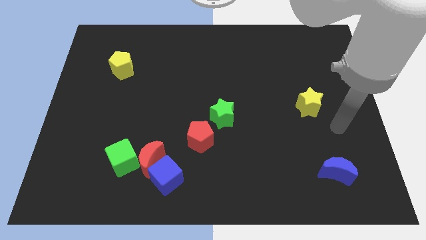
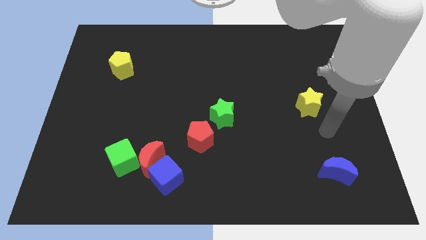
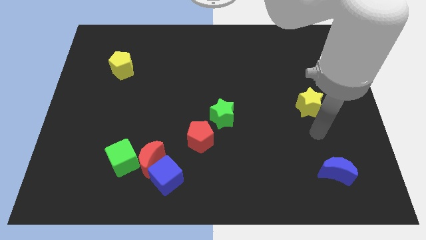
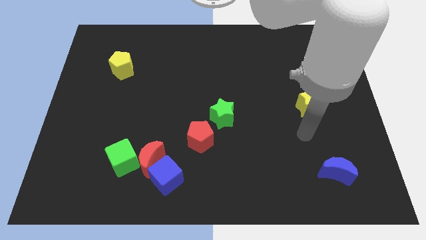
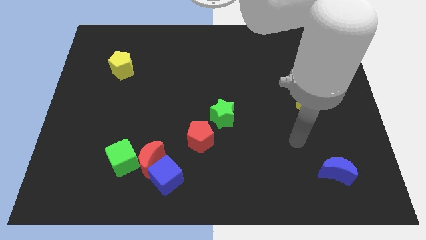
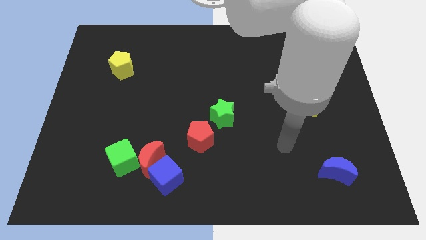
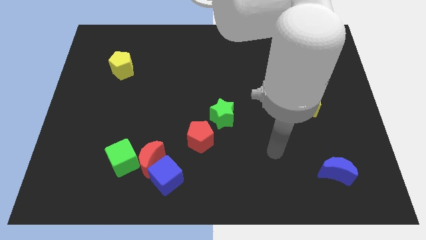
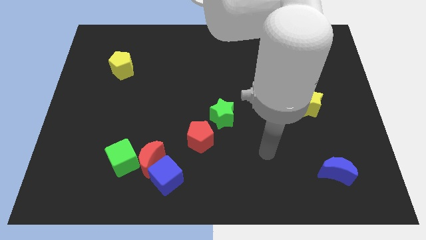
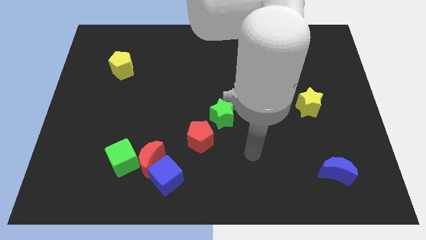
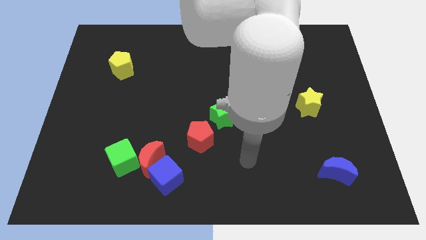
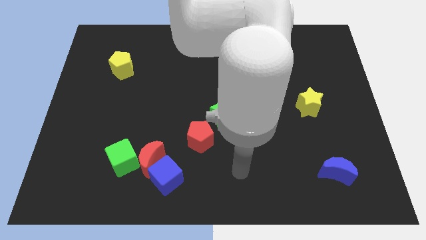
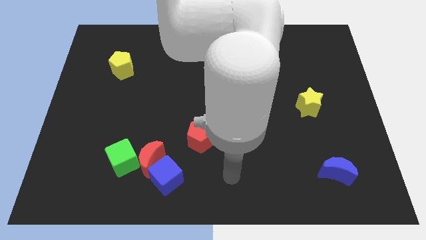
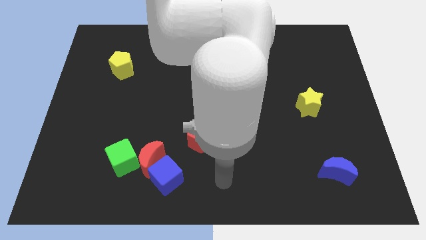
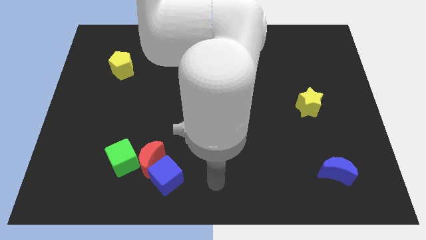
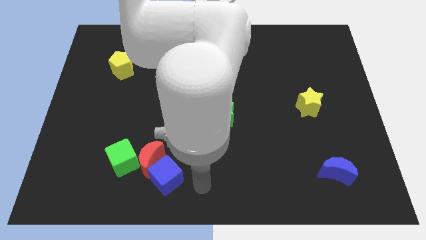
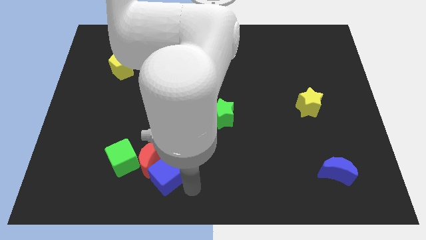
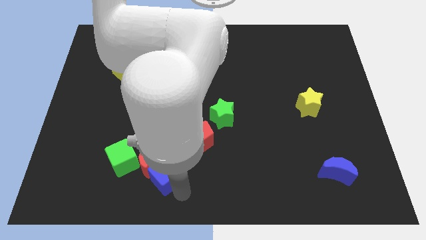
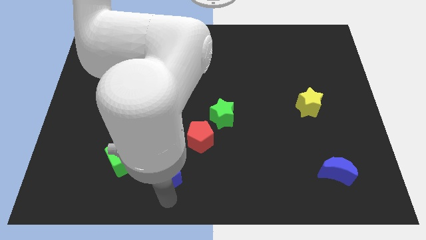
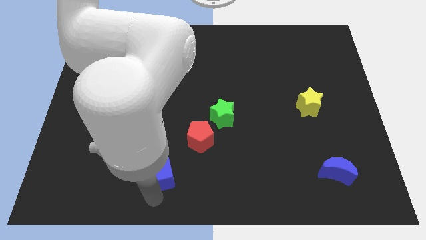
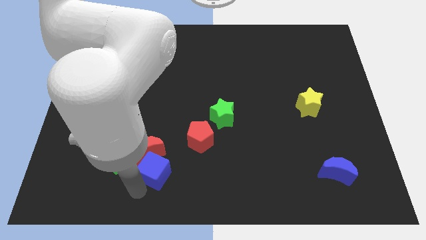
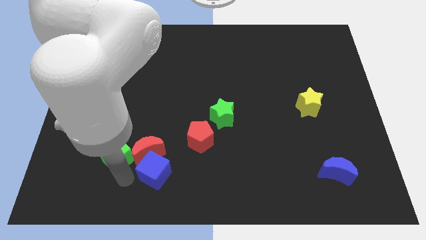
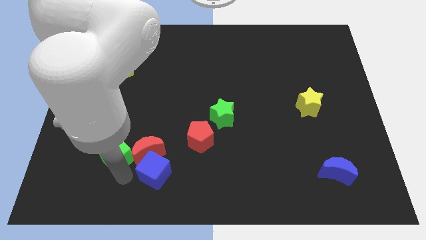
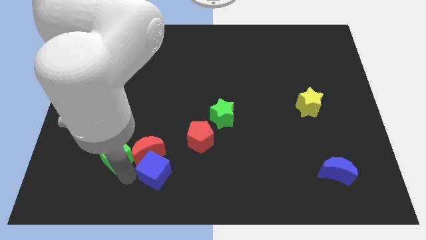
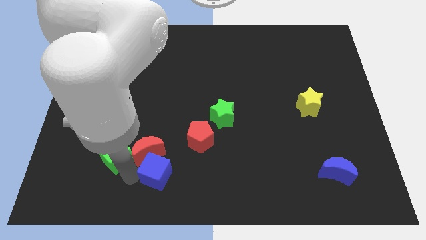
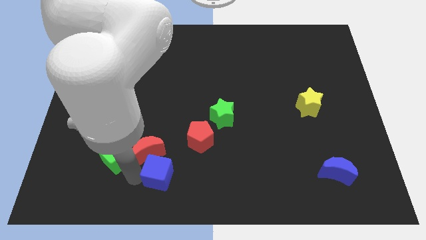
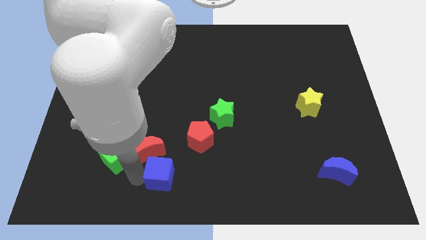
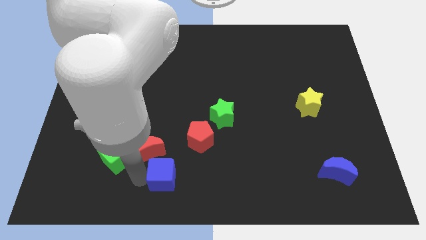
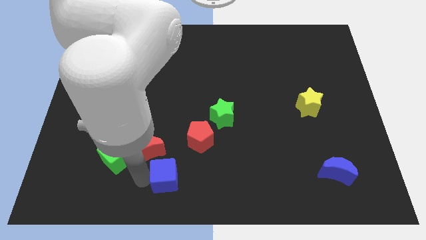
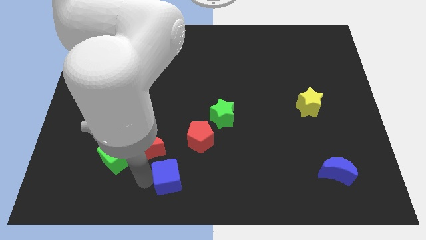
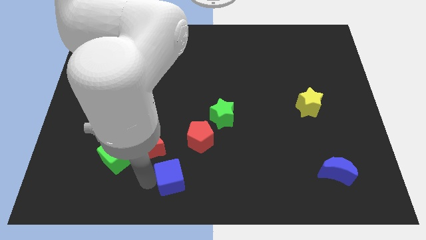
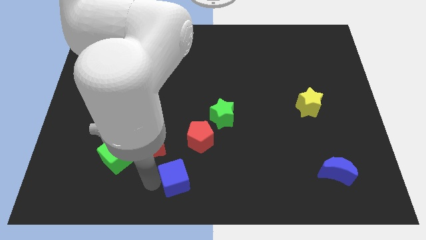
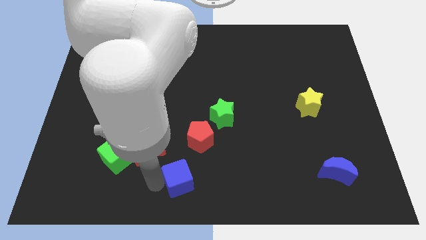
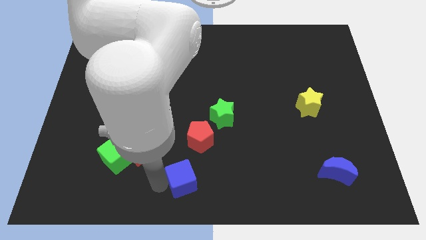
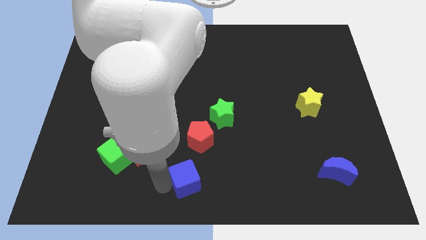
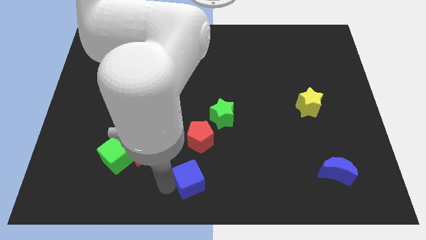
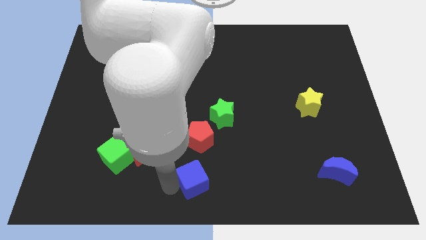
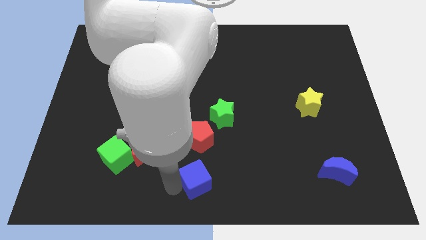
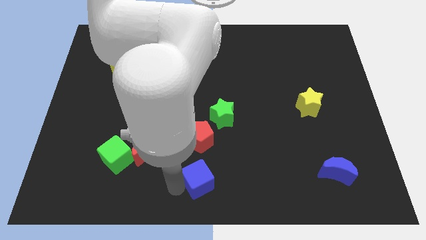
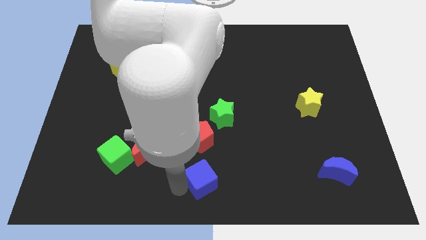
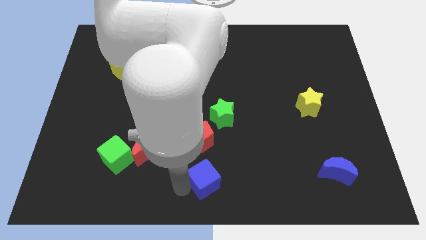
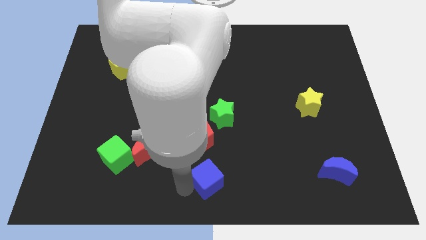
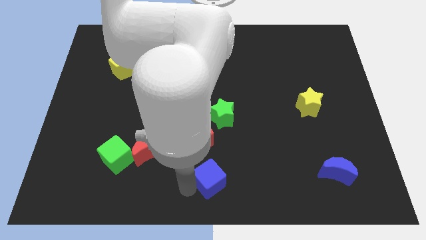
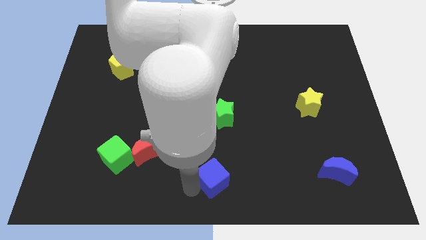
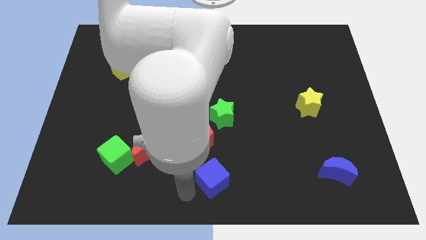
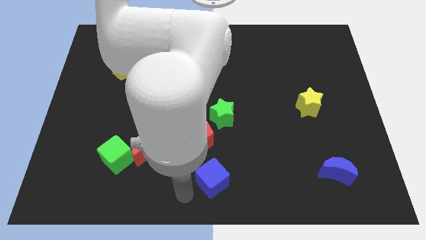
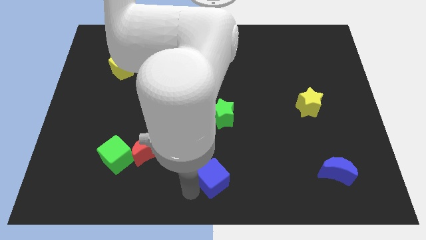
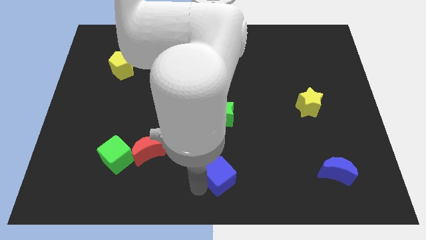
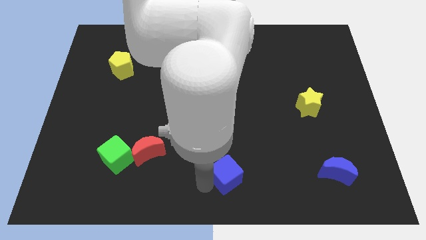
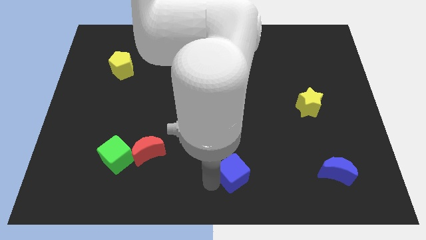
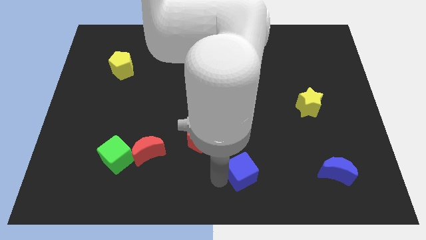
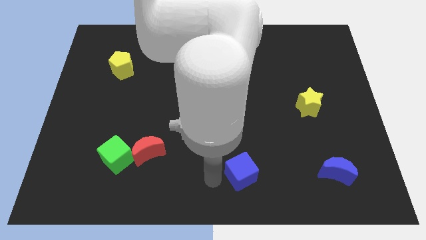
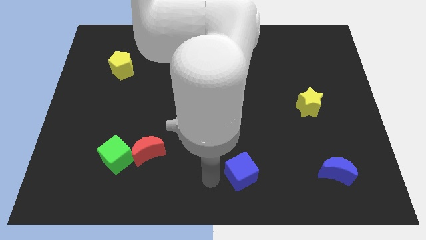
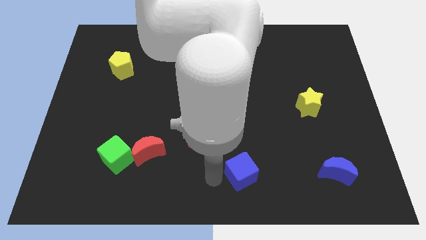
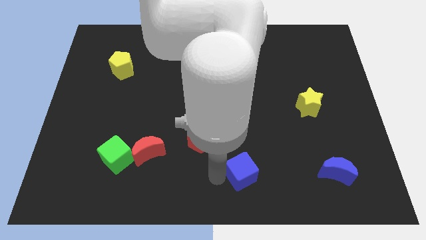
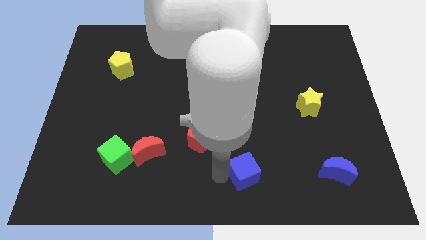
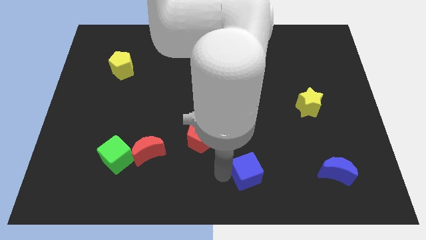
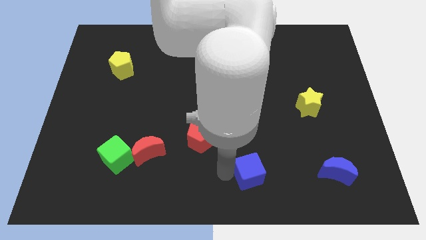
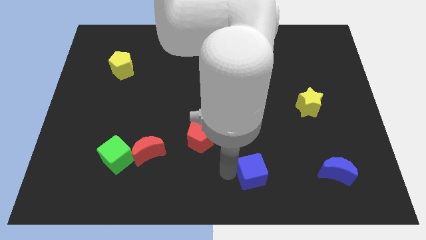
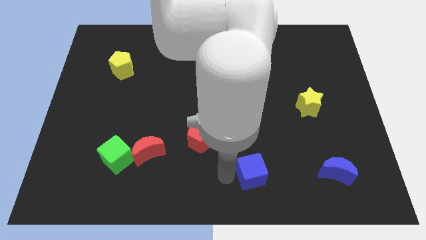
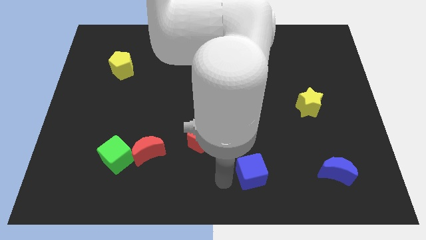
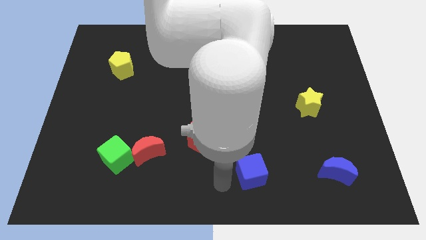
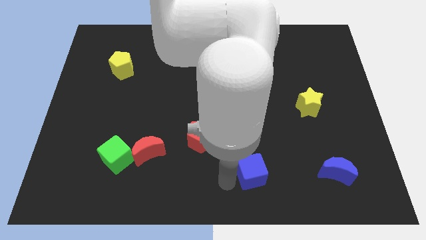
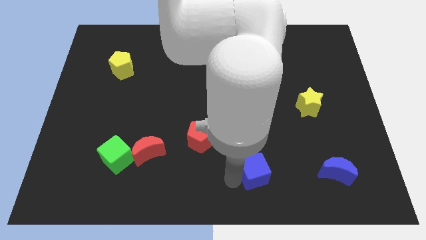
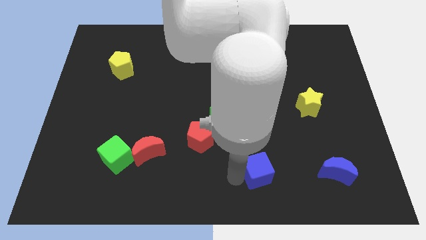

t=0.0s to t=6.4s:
put the blue cube left of the blue moon

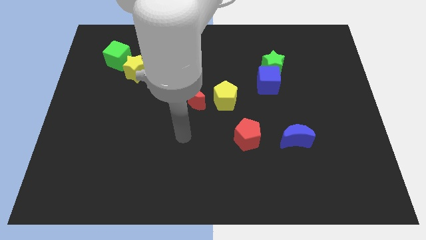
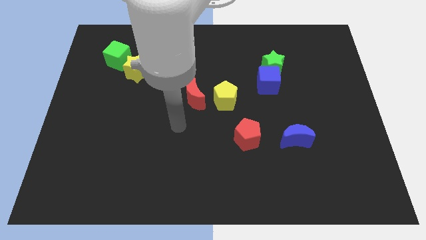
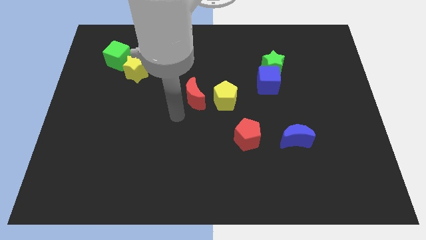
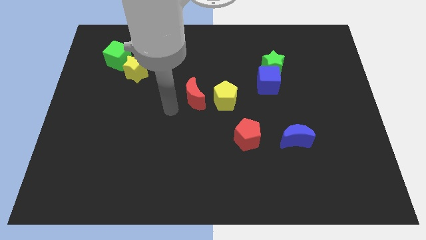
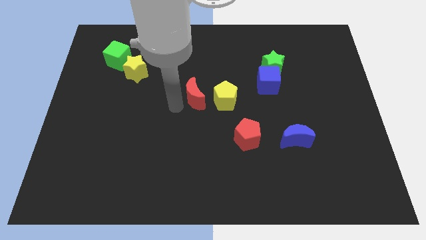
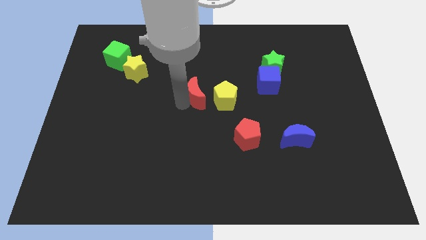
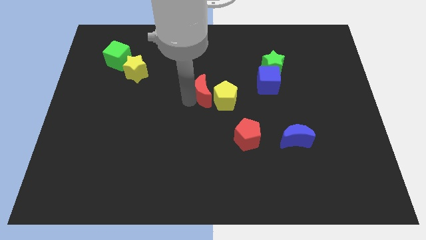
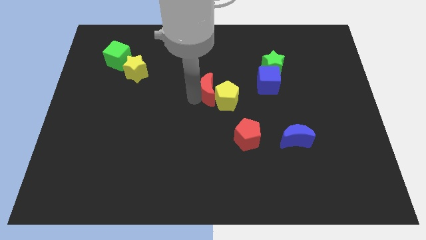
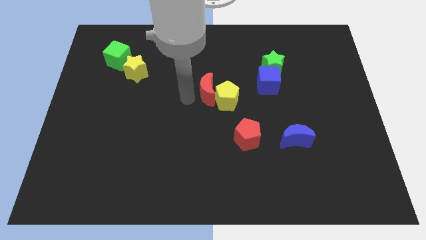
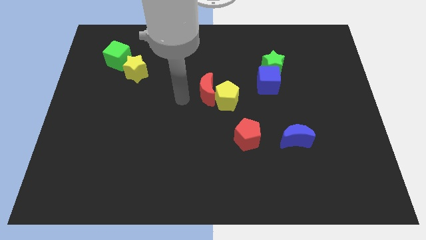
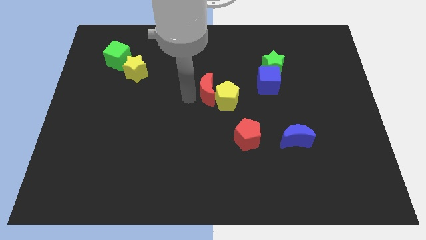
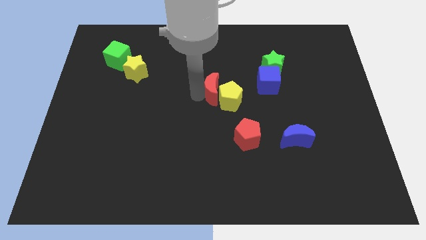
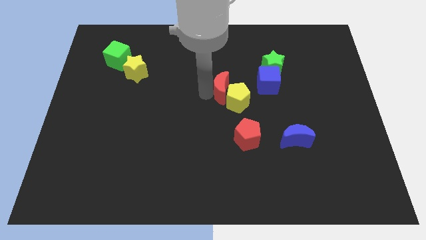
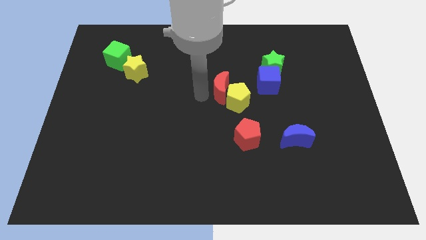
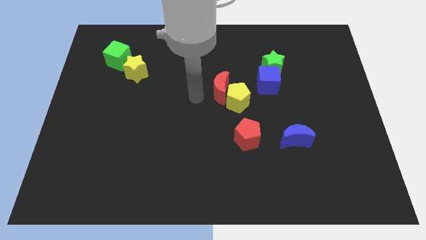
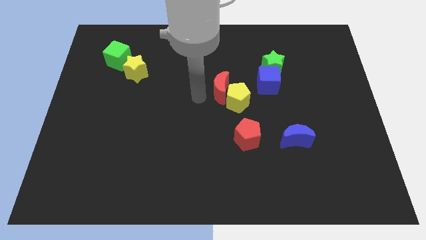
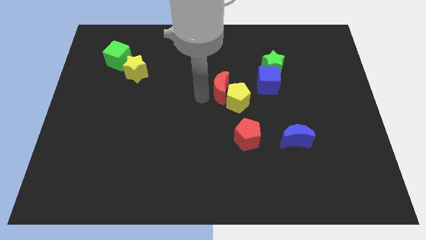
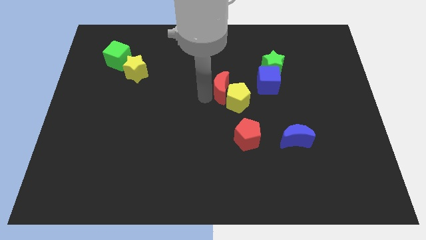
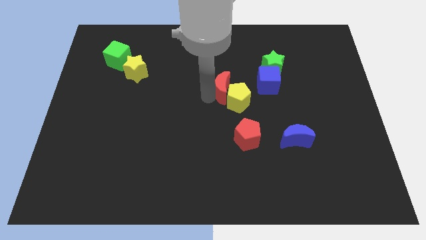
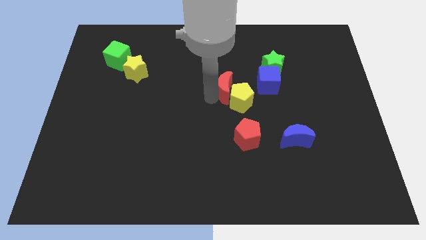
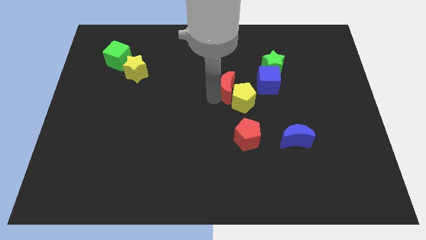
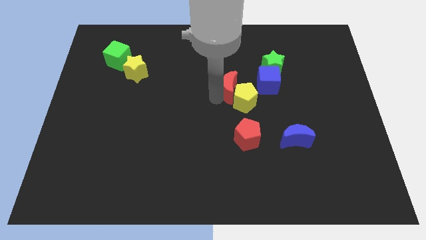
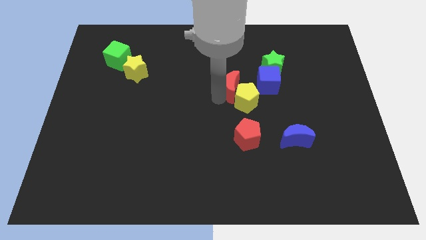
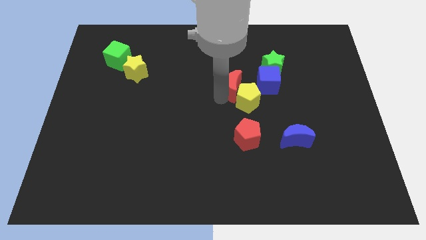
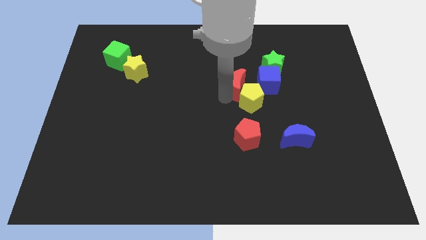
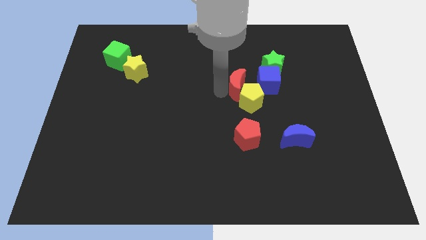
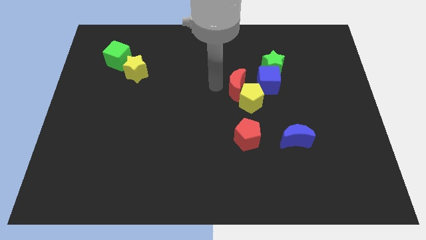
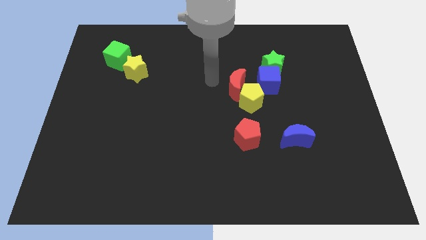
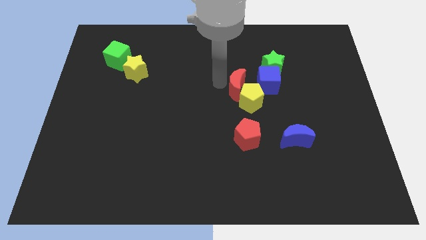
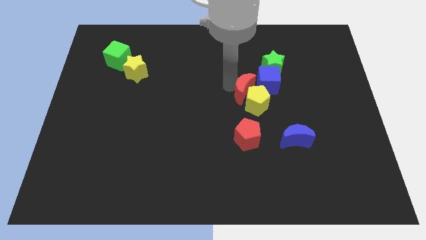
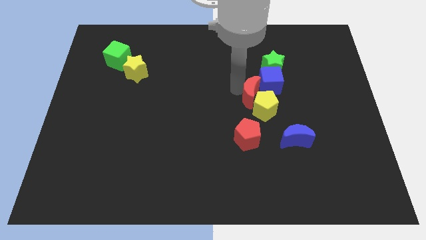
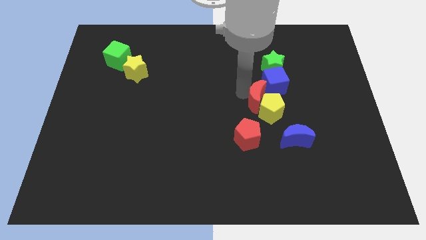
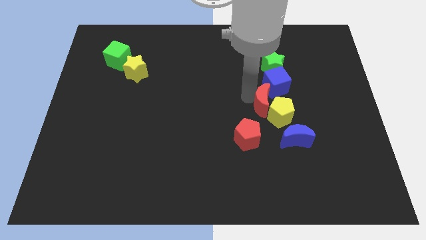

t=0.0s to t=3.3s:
put the red moon to the bottom side of the green star
